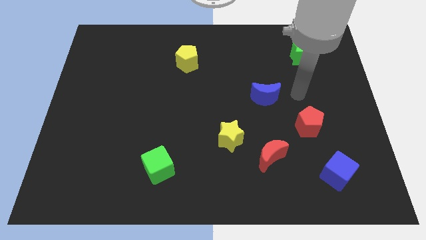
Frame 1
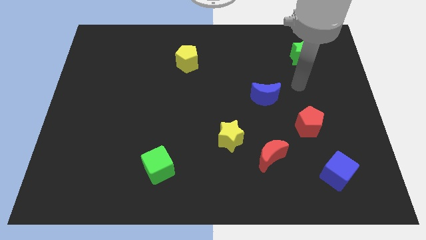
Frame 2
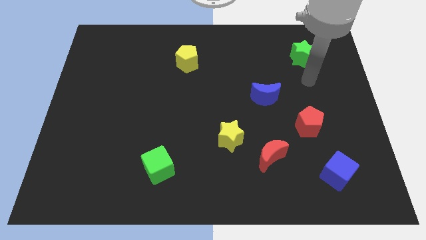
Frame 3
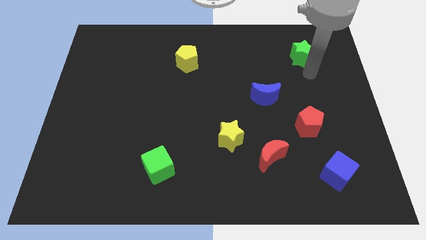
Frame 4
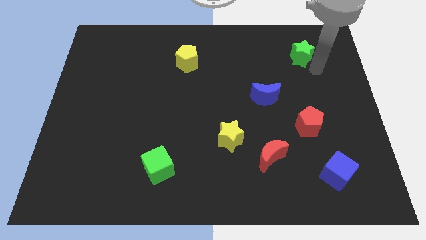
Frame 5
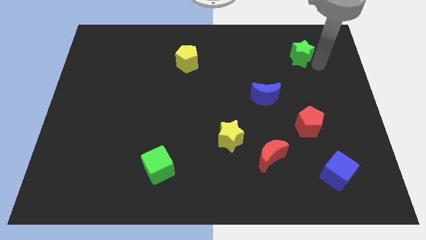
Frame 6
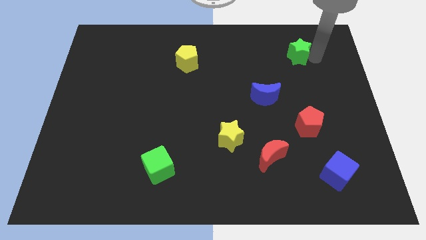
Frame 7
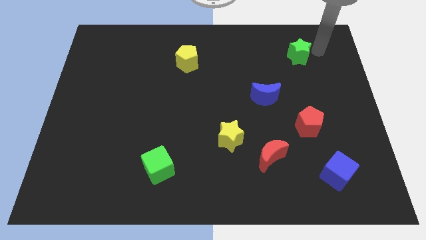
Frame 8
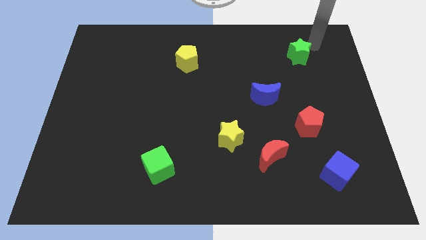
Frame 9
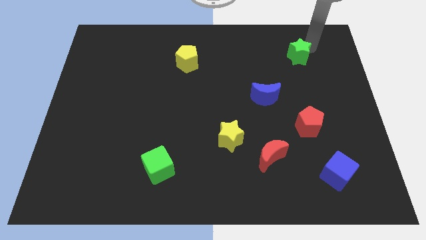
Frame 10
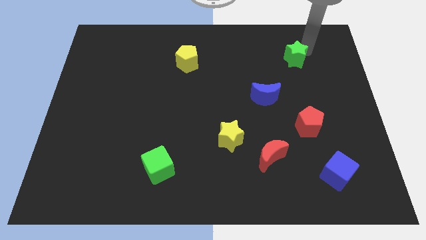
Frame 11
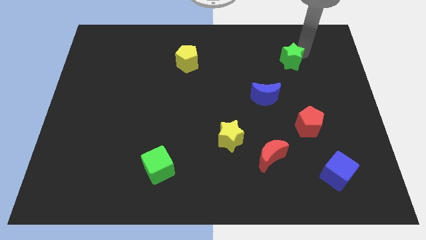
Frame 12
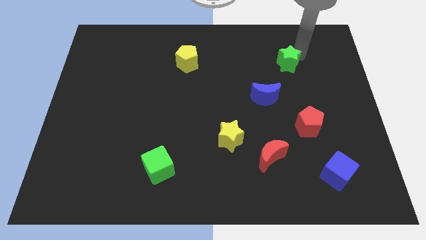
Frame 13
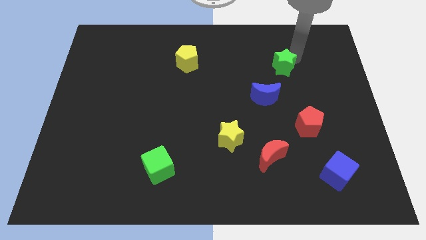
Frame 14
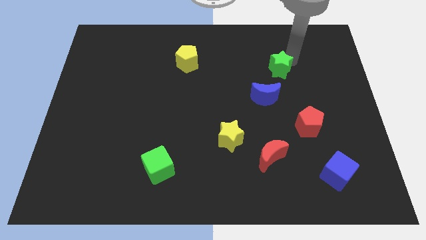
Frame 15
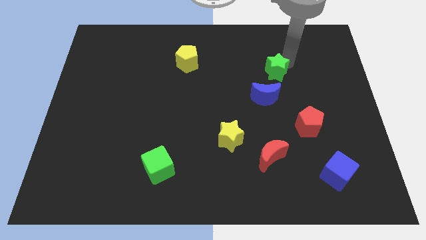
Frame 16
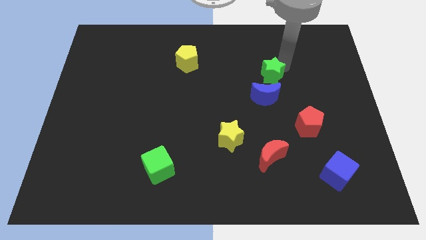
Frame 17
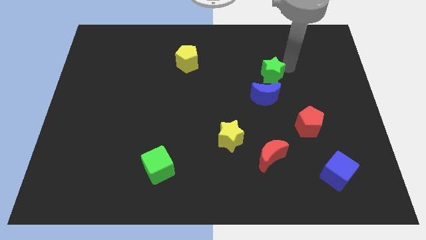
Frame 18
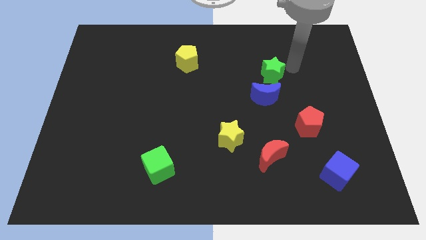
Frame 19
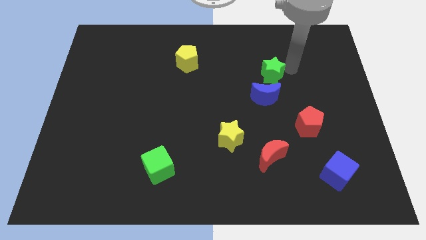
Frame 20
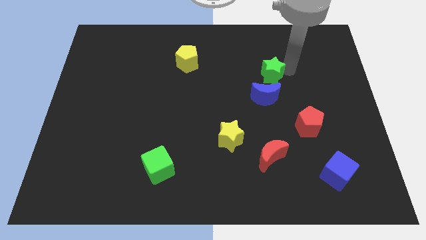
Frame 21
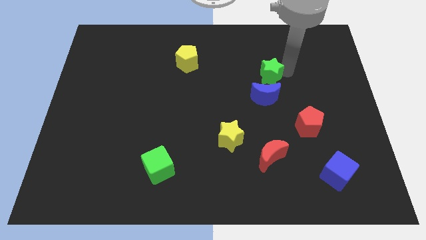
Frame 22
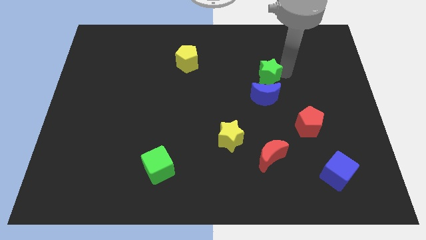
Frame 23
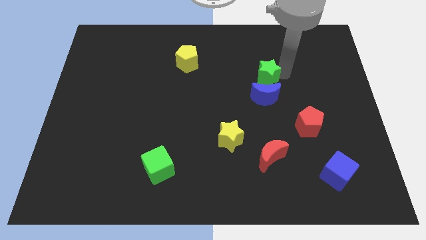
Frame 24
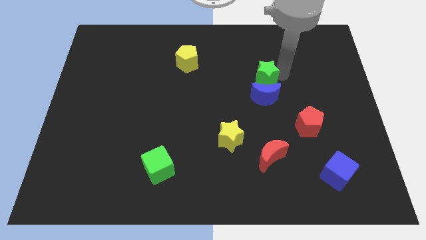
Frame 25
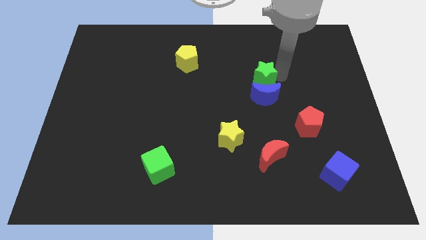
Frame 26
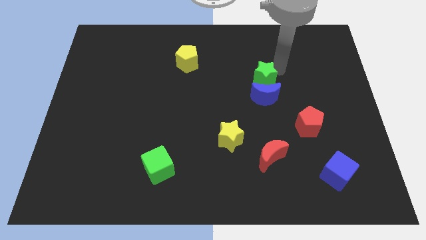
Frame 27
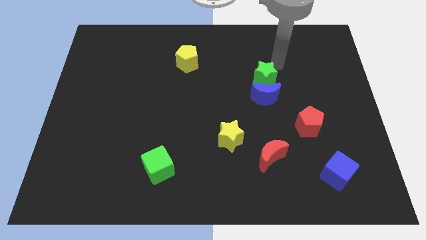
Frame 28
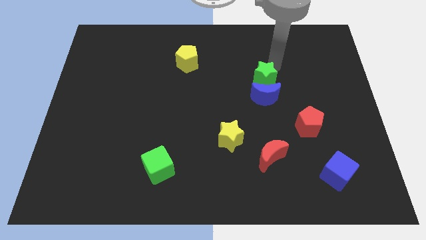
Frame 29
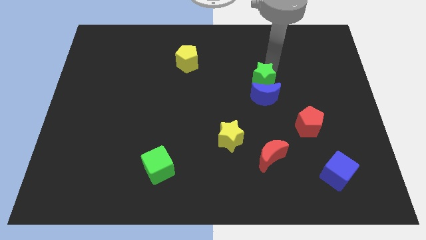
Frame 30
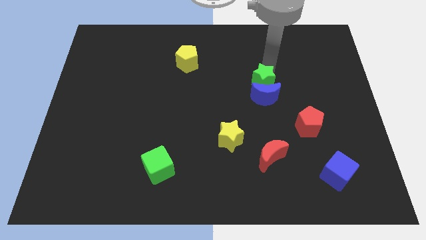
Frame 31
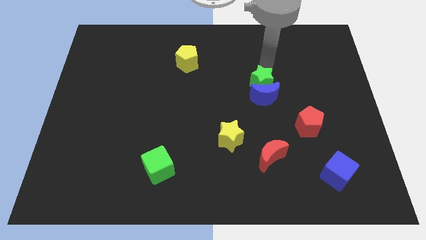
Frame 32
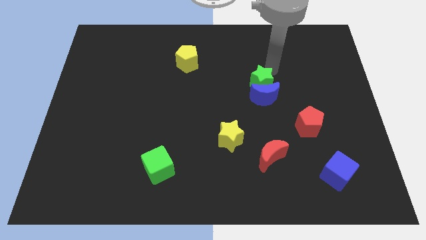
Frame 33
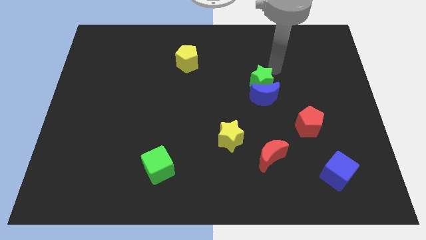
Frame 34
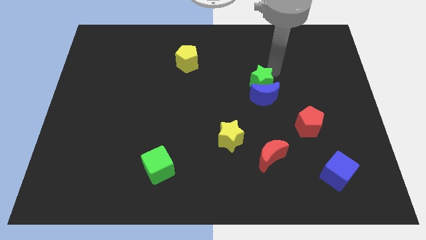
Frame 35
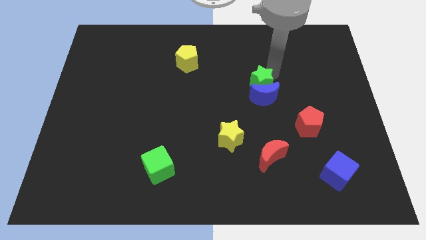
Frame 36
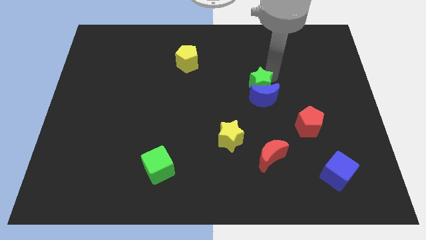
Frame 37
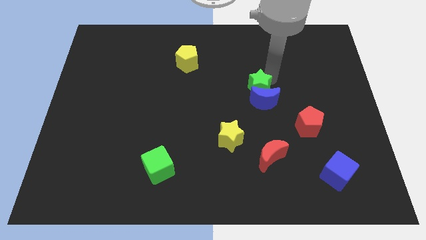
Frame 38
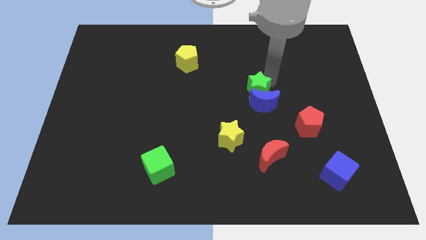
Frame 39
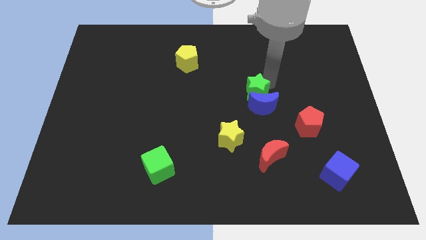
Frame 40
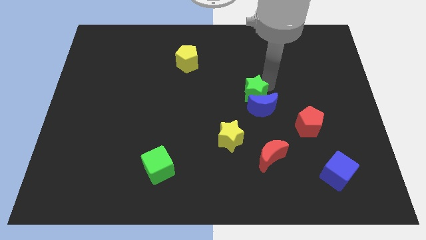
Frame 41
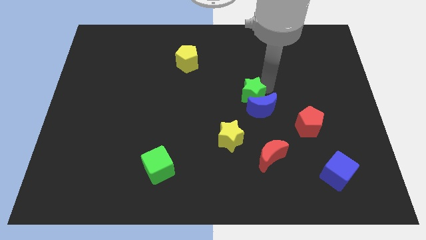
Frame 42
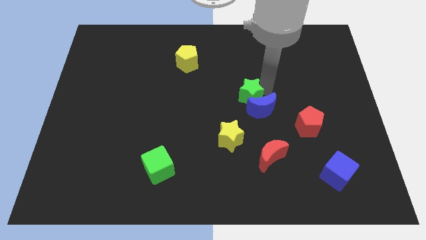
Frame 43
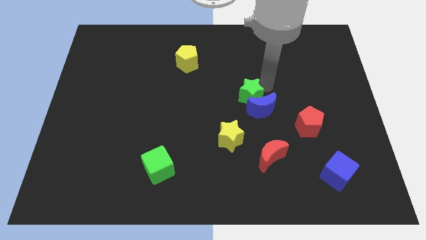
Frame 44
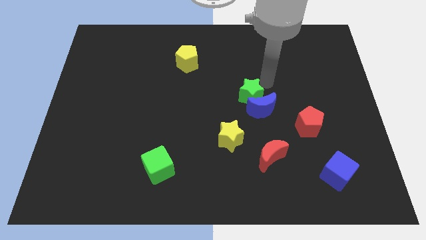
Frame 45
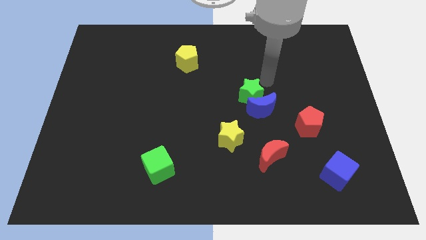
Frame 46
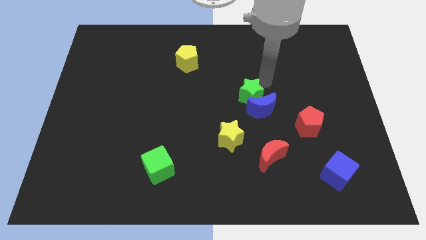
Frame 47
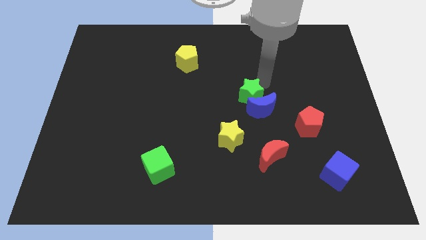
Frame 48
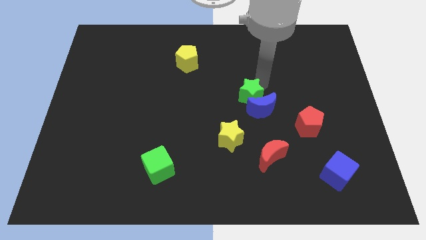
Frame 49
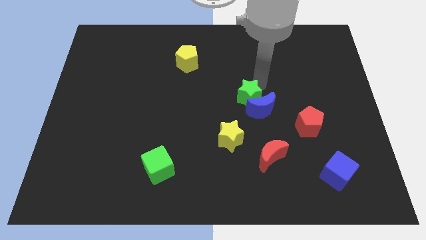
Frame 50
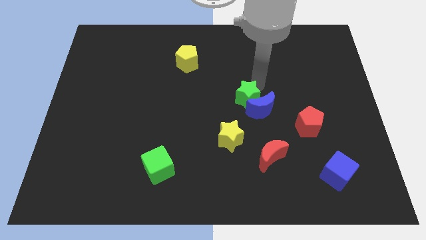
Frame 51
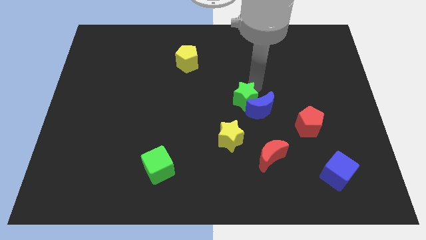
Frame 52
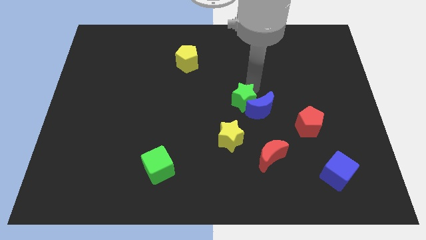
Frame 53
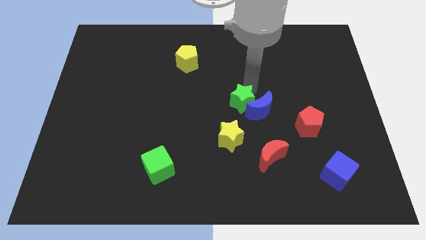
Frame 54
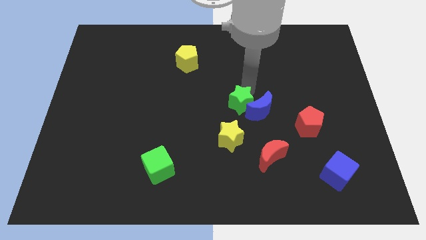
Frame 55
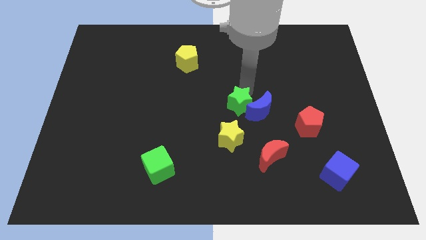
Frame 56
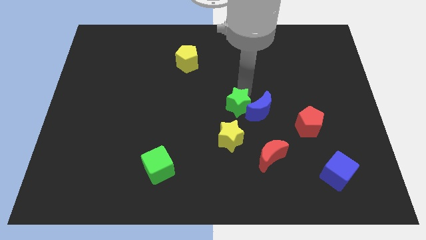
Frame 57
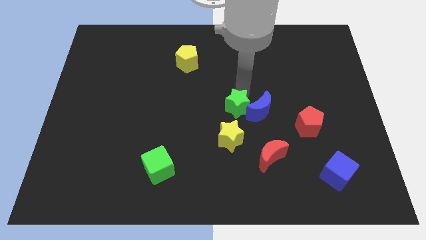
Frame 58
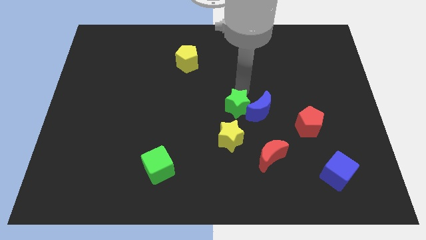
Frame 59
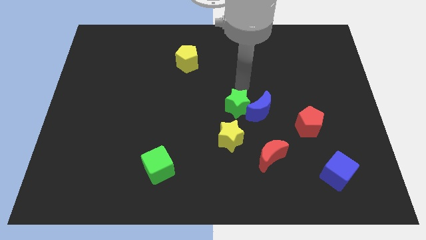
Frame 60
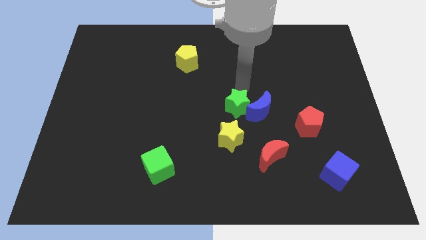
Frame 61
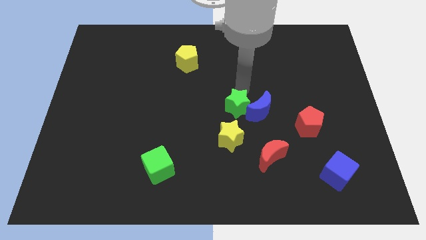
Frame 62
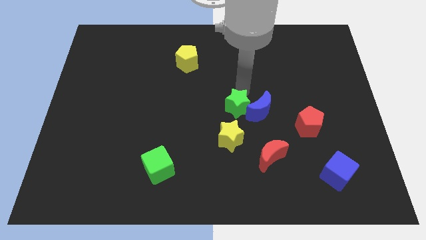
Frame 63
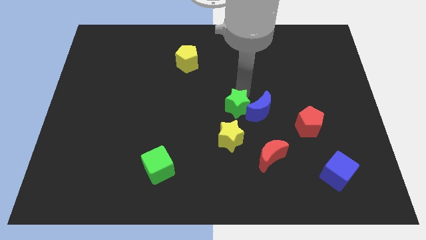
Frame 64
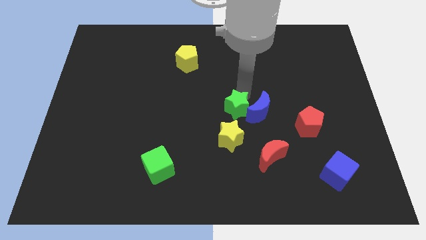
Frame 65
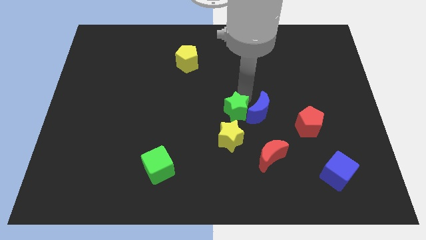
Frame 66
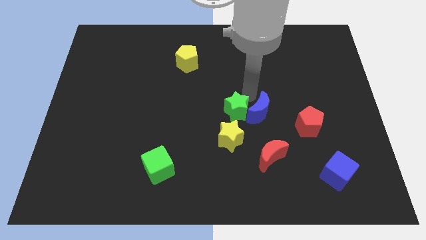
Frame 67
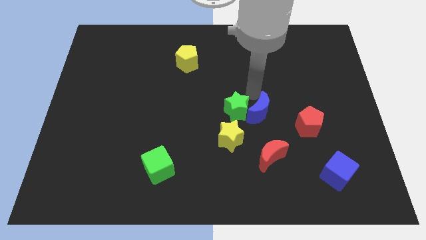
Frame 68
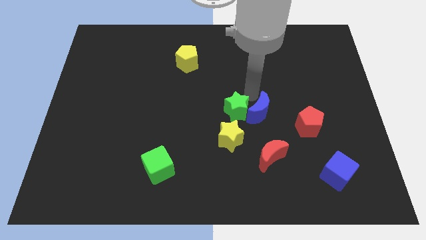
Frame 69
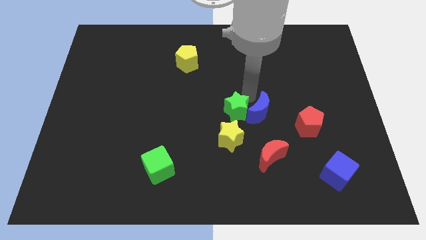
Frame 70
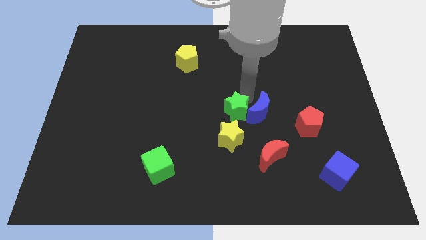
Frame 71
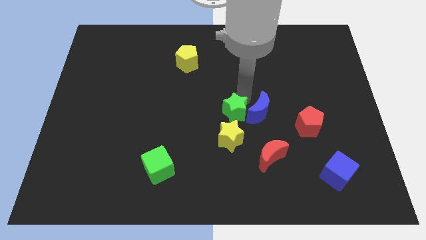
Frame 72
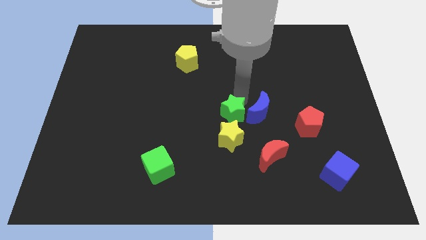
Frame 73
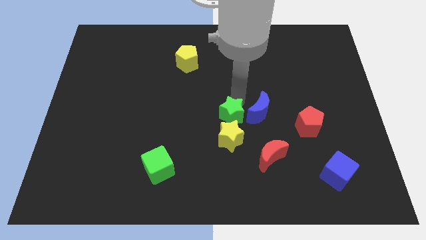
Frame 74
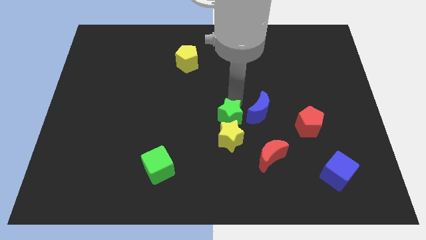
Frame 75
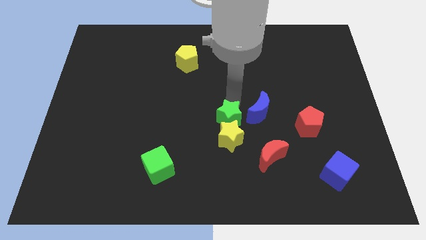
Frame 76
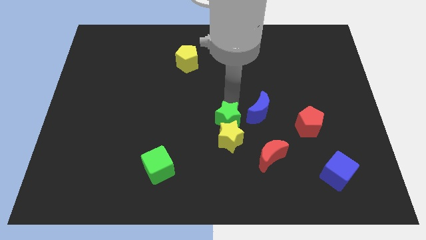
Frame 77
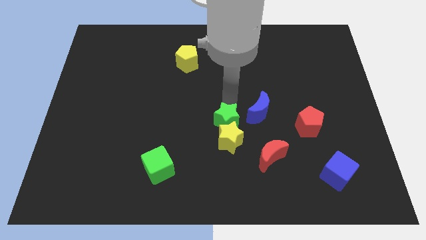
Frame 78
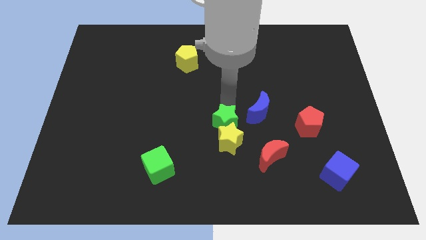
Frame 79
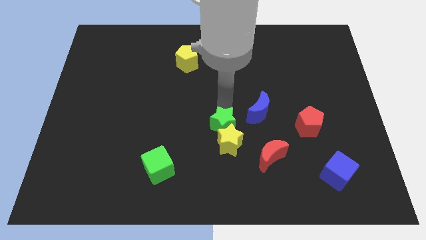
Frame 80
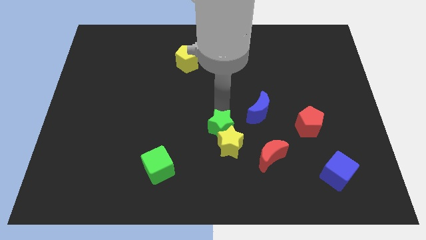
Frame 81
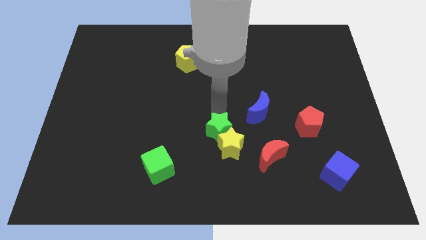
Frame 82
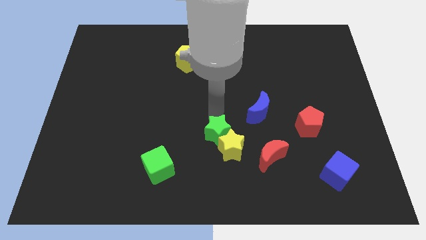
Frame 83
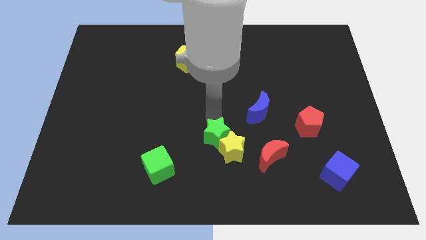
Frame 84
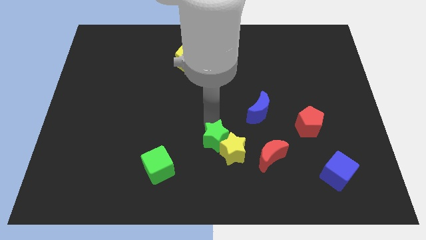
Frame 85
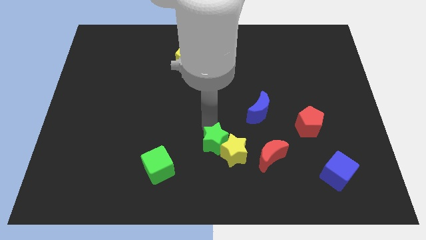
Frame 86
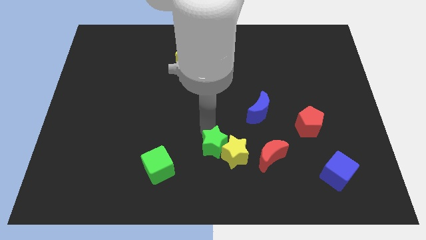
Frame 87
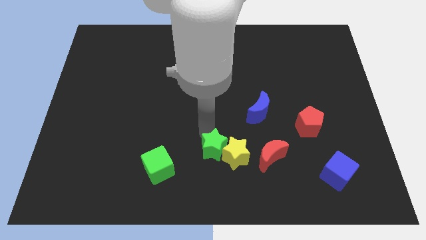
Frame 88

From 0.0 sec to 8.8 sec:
move the green star diagonally down and to the left of the yellow star
